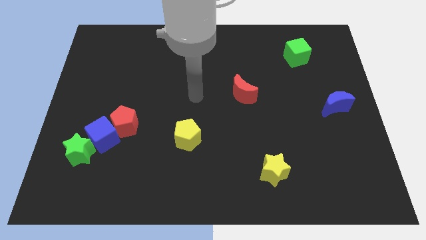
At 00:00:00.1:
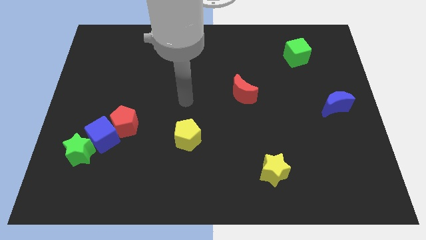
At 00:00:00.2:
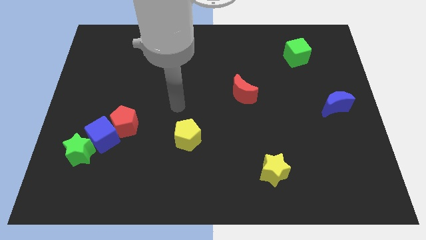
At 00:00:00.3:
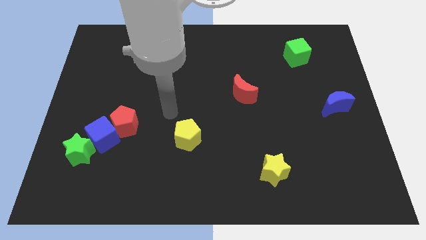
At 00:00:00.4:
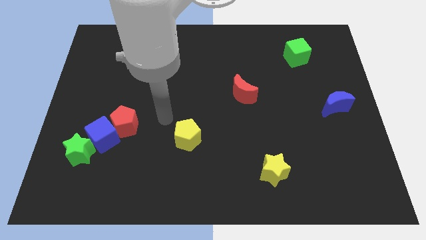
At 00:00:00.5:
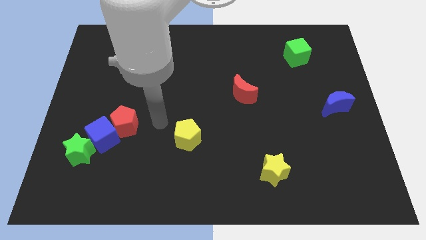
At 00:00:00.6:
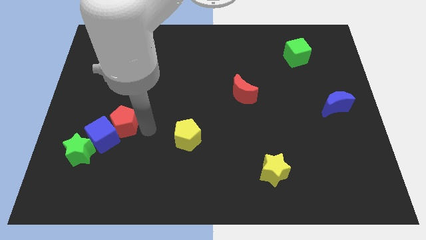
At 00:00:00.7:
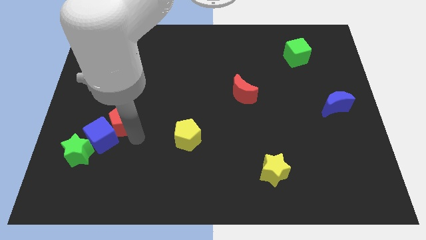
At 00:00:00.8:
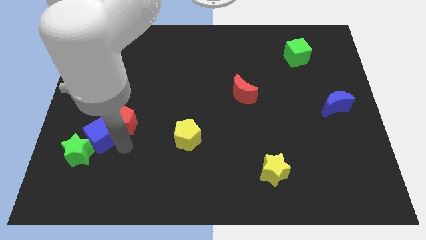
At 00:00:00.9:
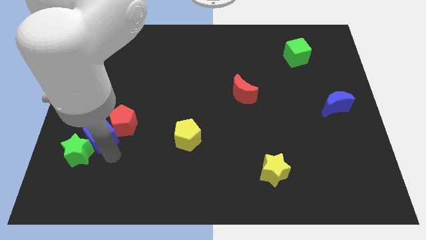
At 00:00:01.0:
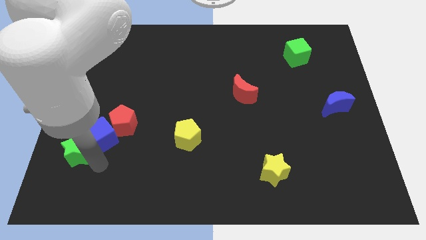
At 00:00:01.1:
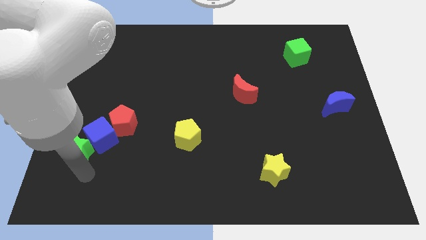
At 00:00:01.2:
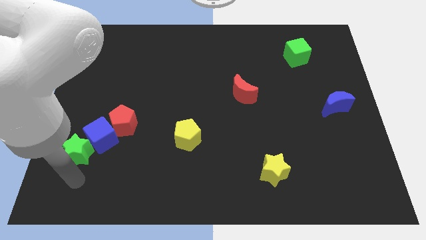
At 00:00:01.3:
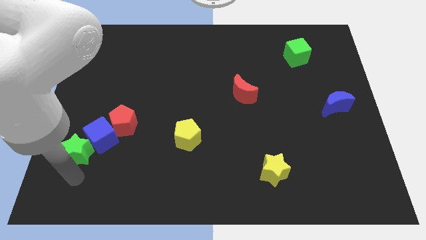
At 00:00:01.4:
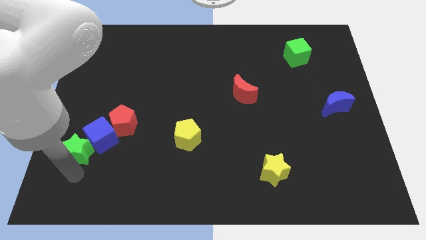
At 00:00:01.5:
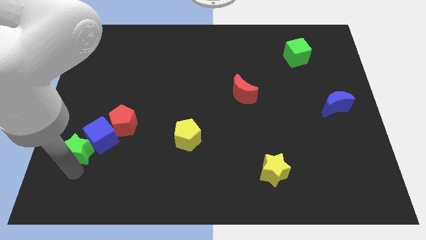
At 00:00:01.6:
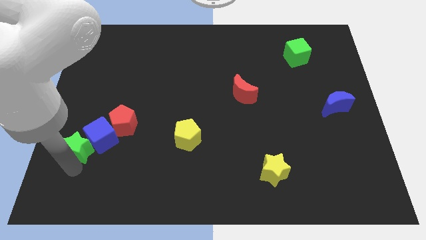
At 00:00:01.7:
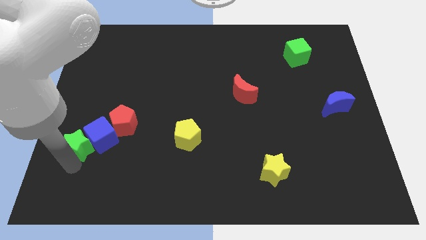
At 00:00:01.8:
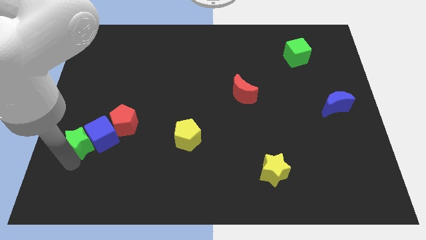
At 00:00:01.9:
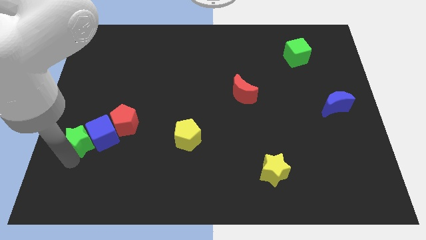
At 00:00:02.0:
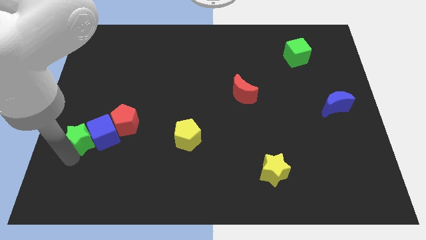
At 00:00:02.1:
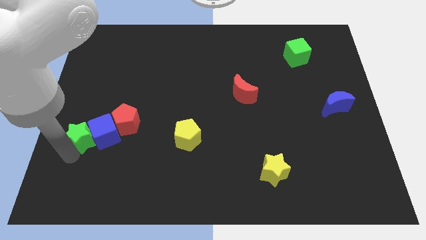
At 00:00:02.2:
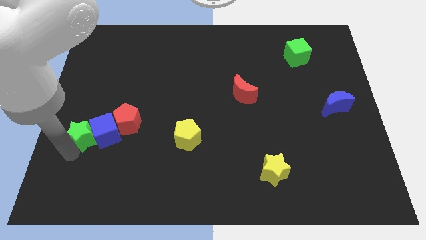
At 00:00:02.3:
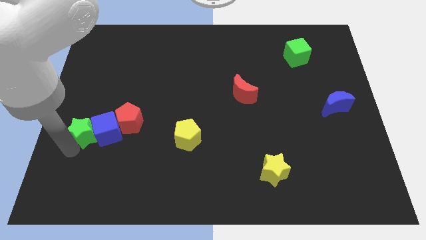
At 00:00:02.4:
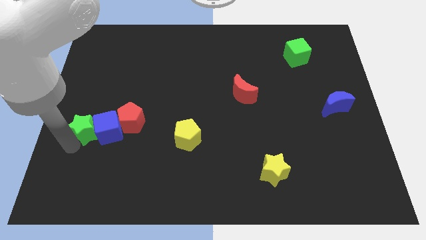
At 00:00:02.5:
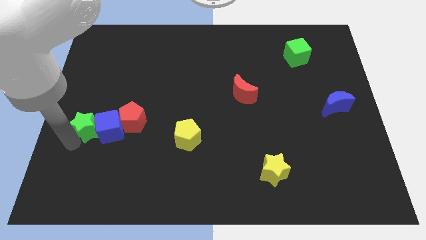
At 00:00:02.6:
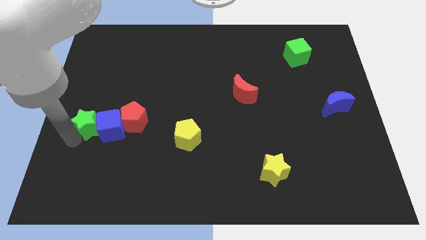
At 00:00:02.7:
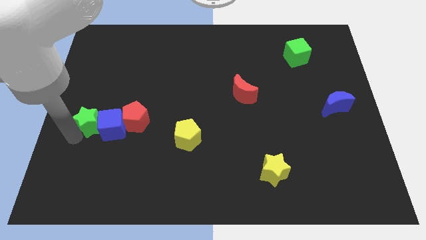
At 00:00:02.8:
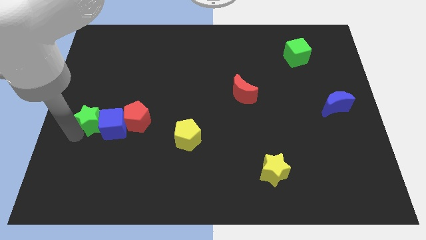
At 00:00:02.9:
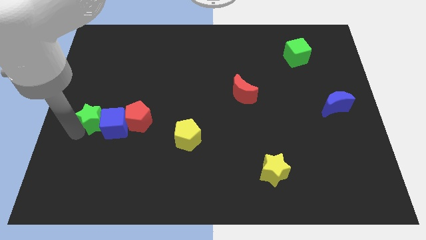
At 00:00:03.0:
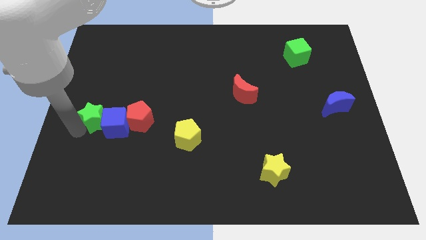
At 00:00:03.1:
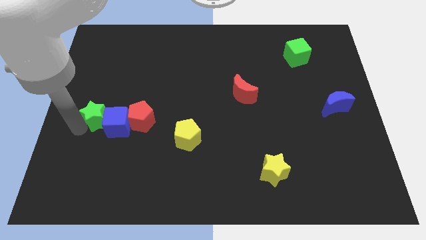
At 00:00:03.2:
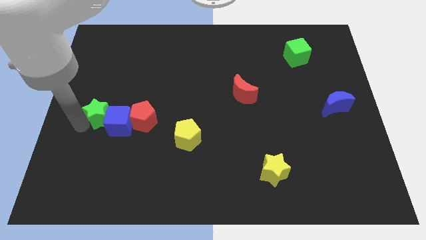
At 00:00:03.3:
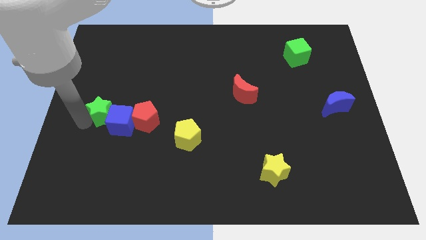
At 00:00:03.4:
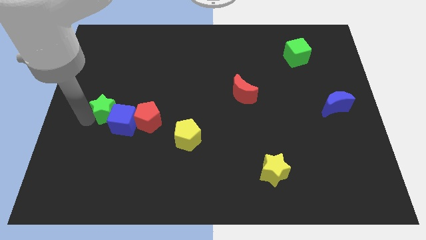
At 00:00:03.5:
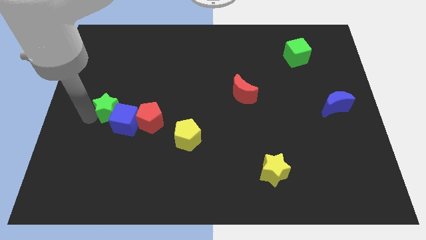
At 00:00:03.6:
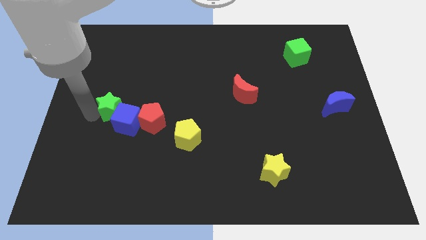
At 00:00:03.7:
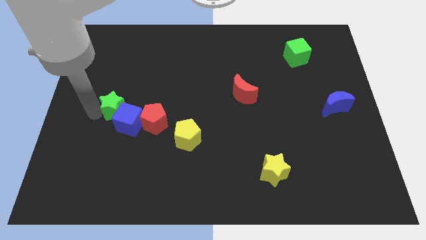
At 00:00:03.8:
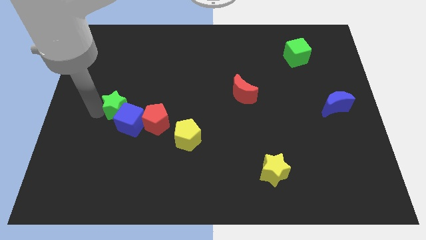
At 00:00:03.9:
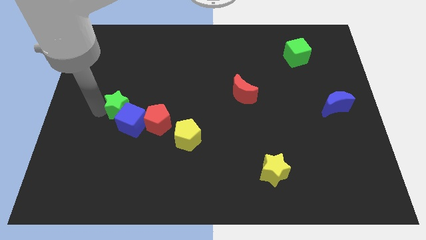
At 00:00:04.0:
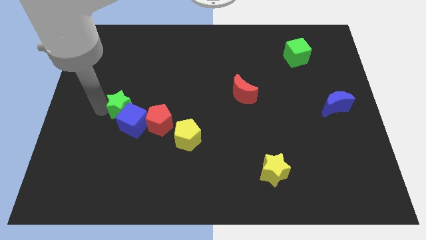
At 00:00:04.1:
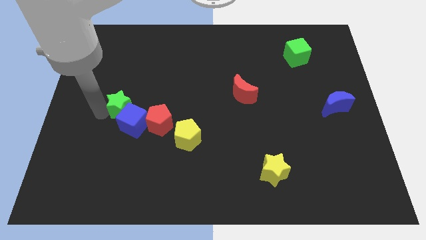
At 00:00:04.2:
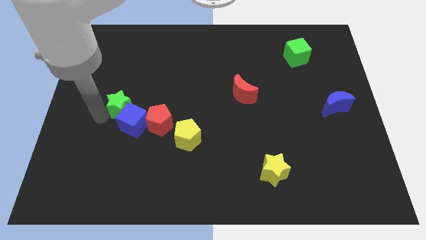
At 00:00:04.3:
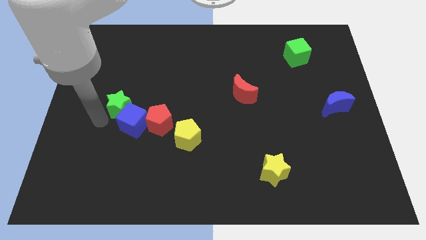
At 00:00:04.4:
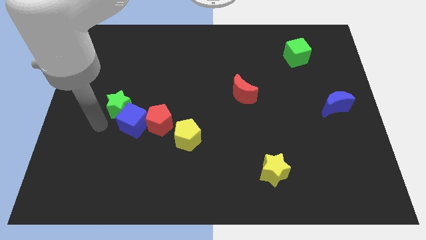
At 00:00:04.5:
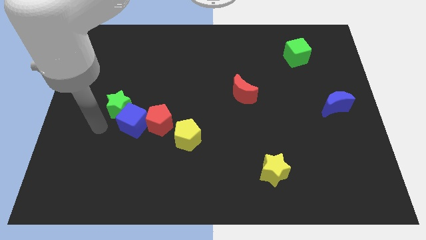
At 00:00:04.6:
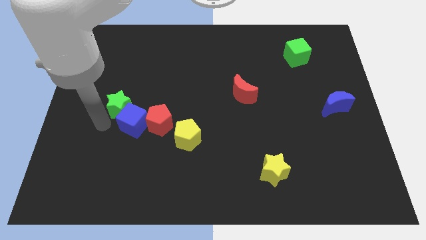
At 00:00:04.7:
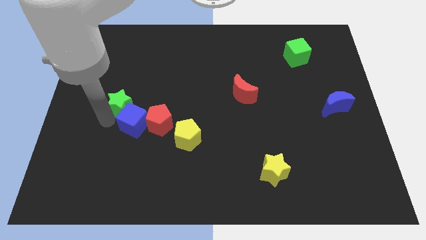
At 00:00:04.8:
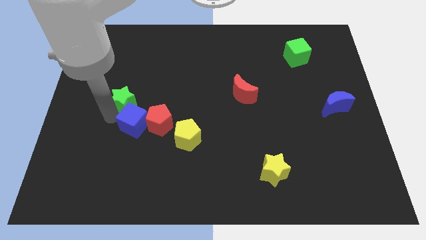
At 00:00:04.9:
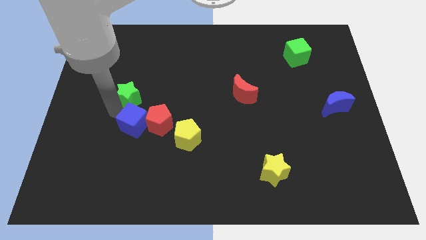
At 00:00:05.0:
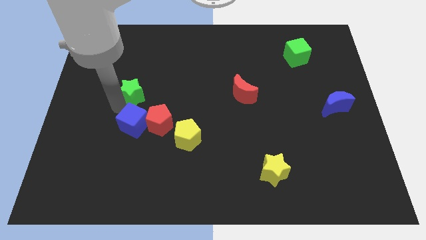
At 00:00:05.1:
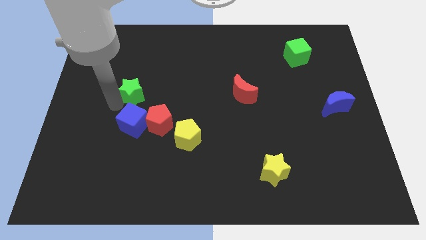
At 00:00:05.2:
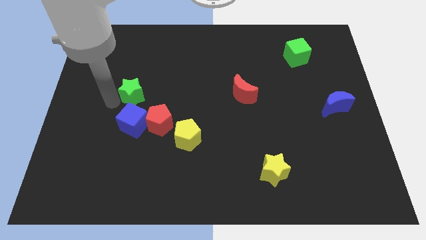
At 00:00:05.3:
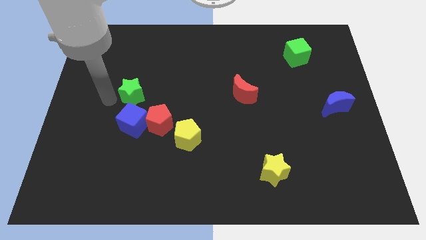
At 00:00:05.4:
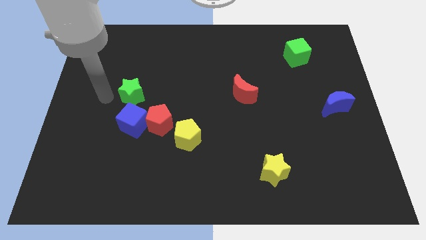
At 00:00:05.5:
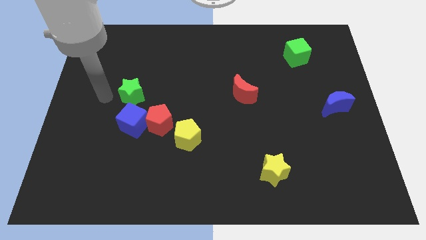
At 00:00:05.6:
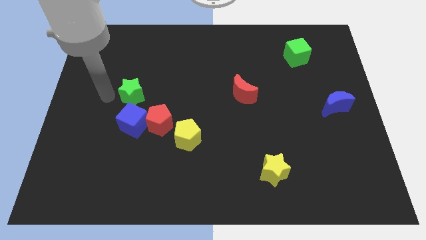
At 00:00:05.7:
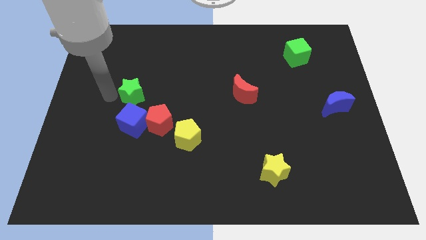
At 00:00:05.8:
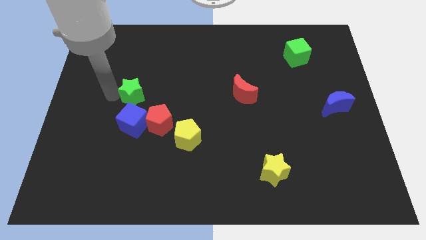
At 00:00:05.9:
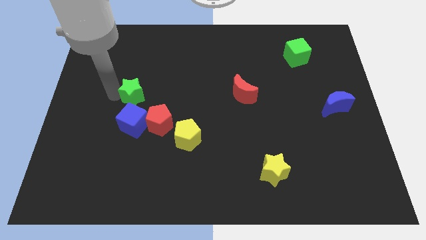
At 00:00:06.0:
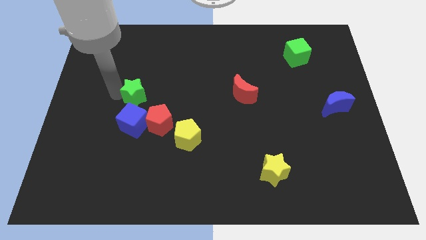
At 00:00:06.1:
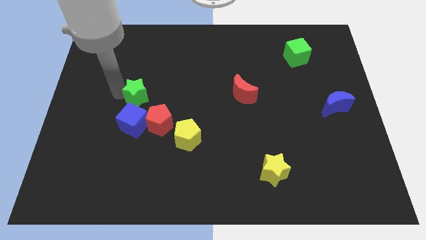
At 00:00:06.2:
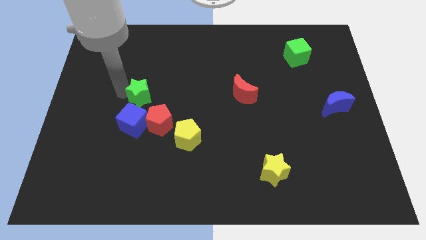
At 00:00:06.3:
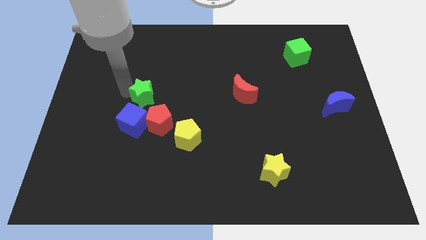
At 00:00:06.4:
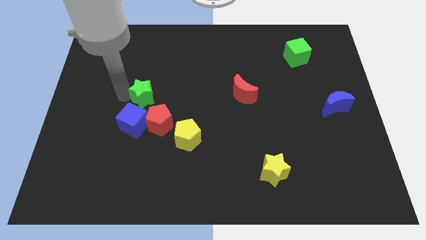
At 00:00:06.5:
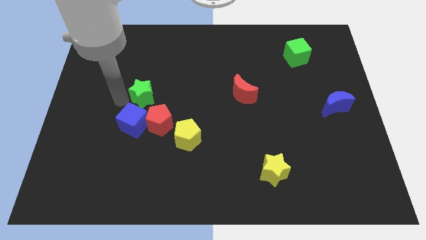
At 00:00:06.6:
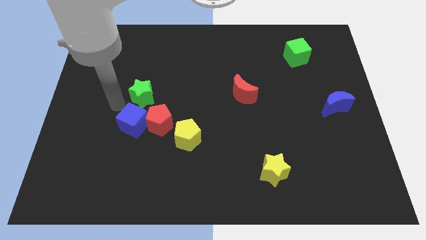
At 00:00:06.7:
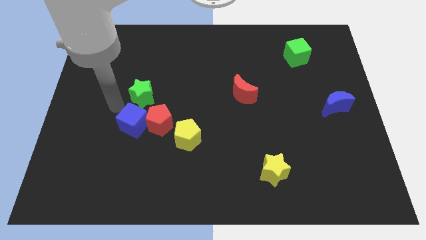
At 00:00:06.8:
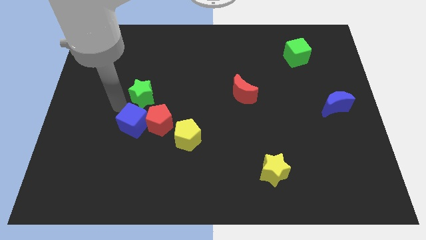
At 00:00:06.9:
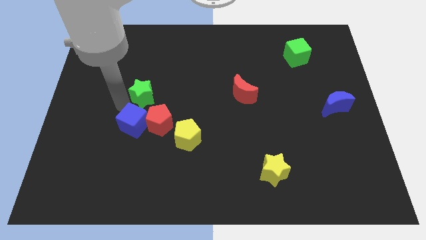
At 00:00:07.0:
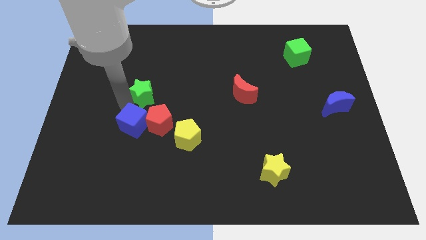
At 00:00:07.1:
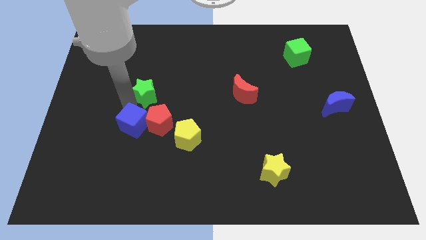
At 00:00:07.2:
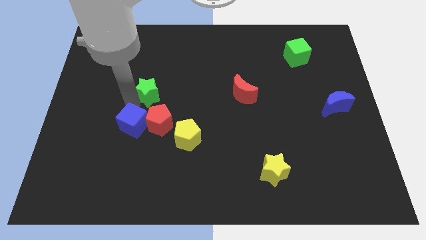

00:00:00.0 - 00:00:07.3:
push the green star upwards and to the right diagonally

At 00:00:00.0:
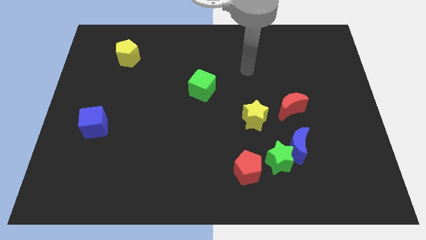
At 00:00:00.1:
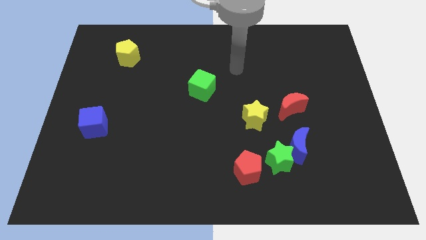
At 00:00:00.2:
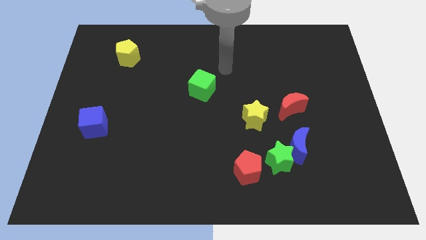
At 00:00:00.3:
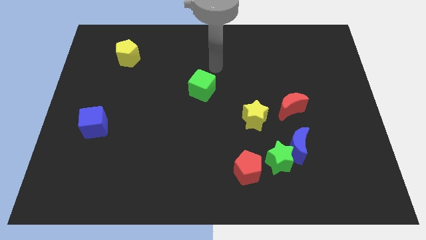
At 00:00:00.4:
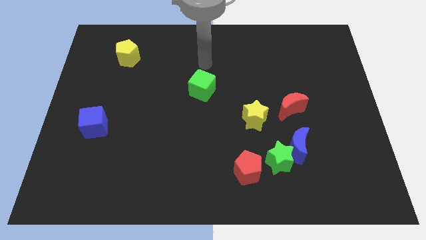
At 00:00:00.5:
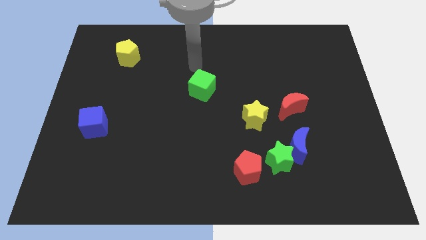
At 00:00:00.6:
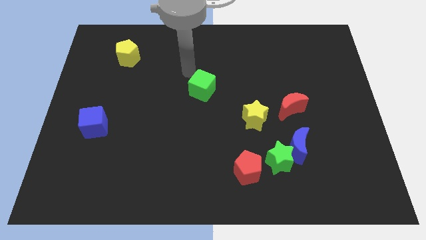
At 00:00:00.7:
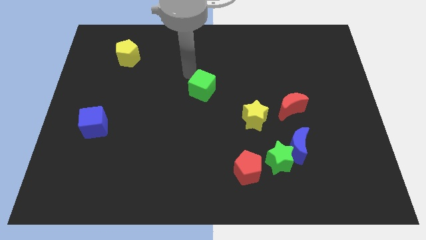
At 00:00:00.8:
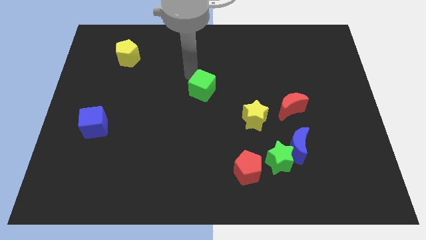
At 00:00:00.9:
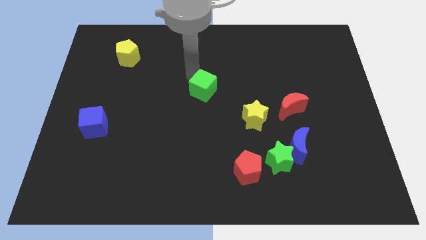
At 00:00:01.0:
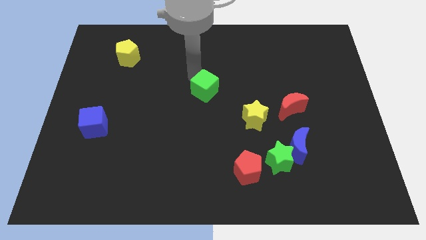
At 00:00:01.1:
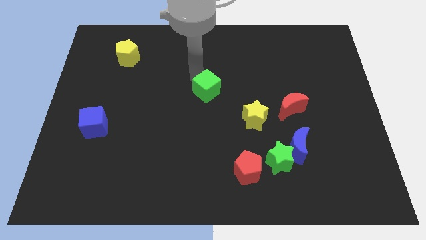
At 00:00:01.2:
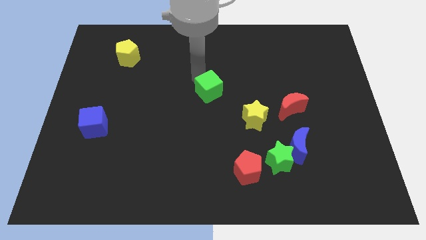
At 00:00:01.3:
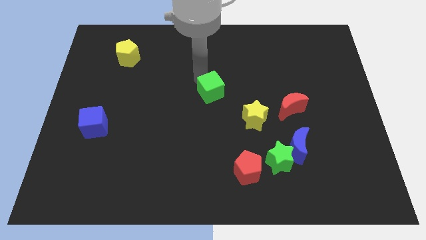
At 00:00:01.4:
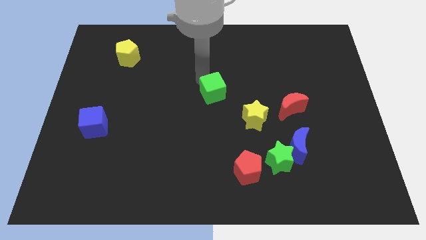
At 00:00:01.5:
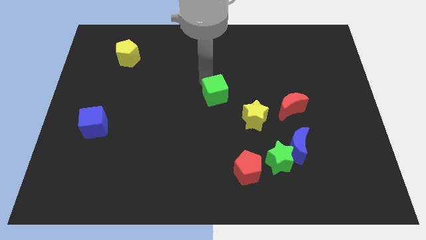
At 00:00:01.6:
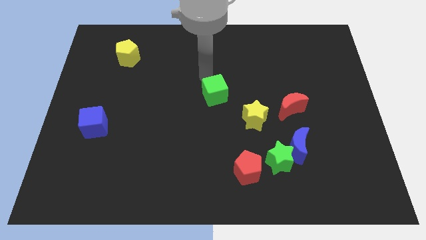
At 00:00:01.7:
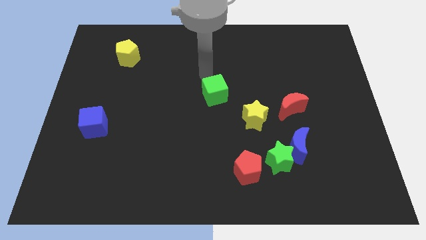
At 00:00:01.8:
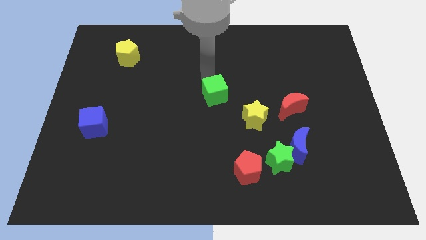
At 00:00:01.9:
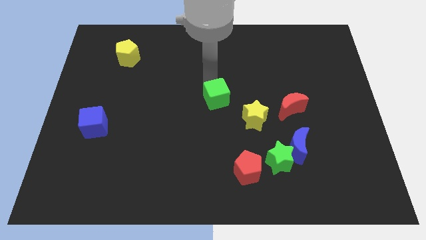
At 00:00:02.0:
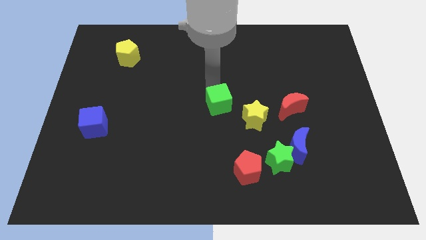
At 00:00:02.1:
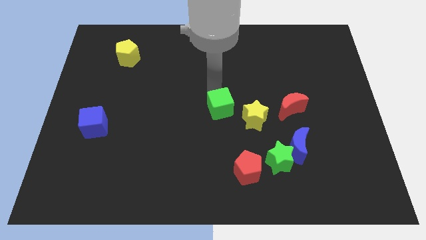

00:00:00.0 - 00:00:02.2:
slide the green cube somewhat downwards and then to the right
